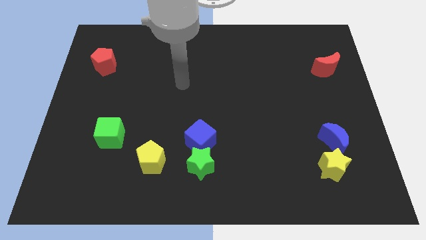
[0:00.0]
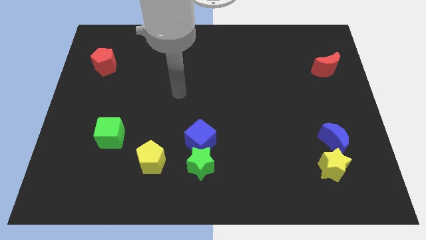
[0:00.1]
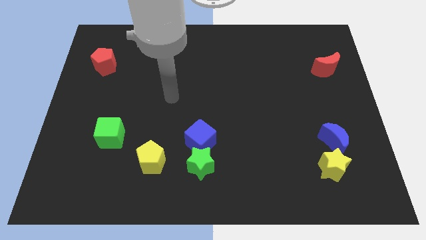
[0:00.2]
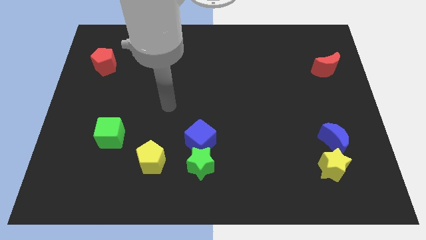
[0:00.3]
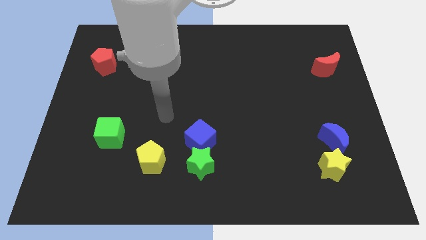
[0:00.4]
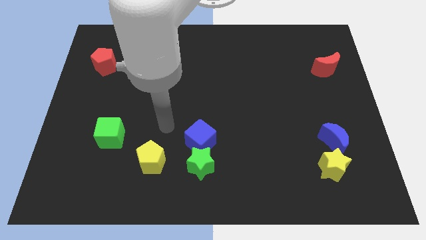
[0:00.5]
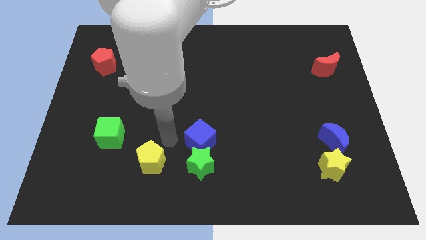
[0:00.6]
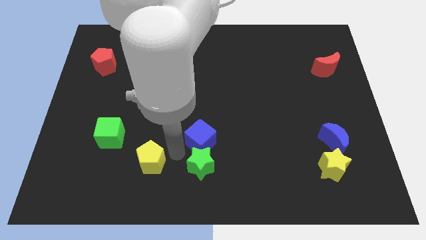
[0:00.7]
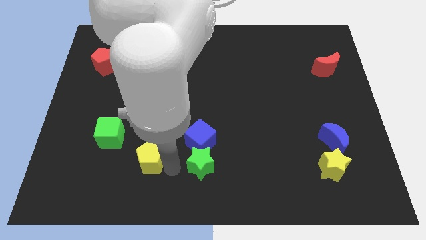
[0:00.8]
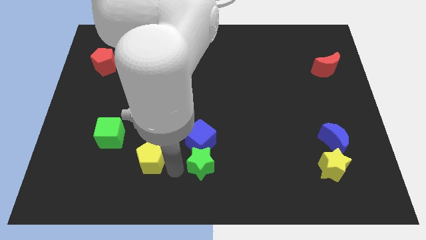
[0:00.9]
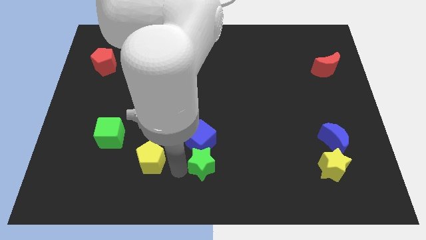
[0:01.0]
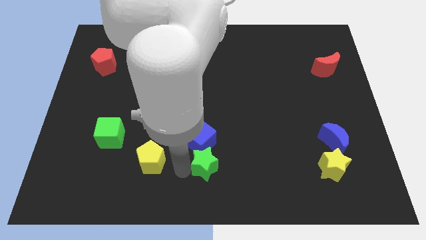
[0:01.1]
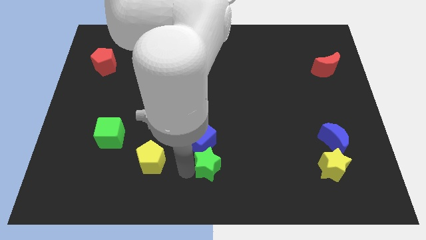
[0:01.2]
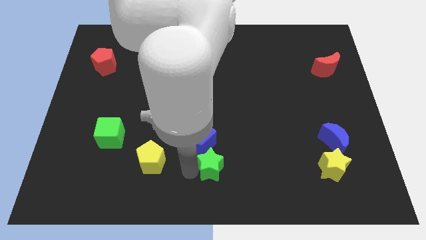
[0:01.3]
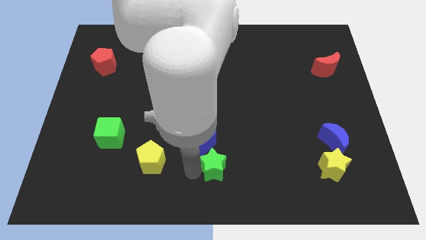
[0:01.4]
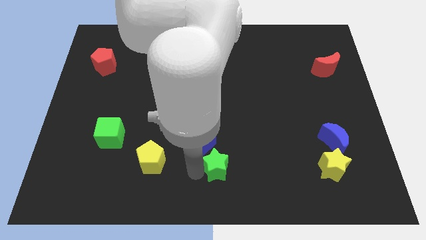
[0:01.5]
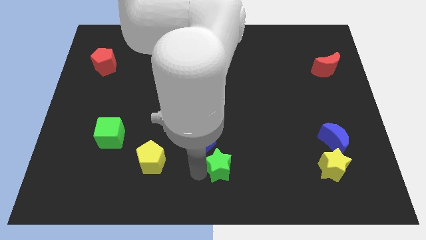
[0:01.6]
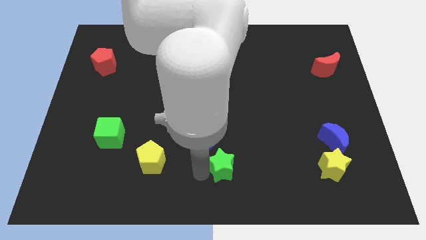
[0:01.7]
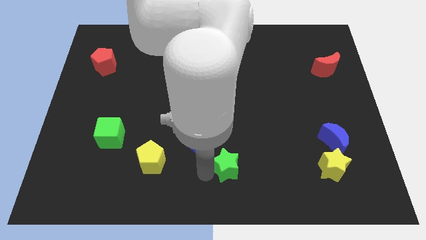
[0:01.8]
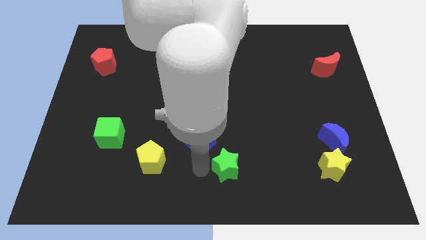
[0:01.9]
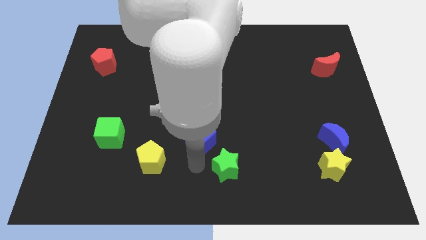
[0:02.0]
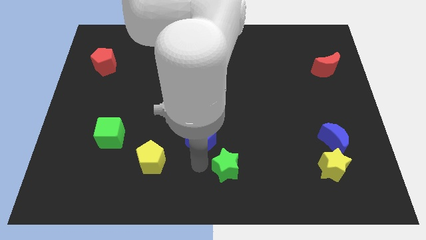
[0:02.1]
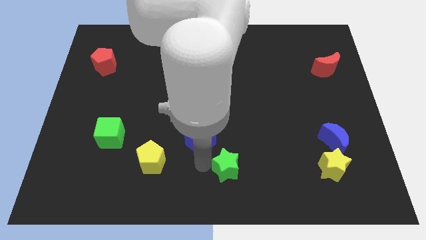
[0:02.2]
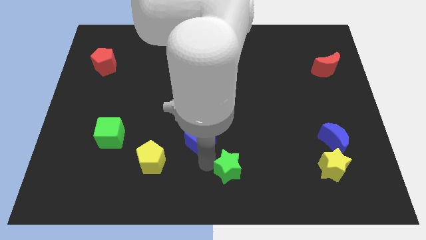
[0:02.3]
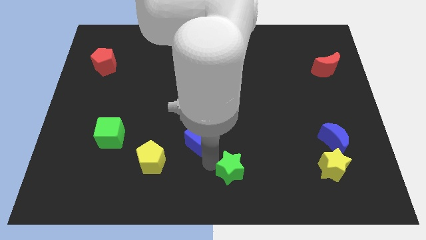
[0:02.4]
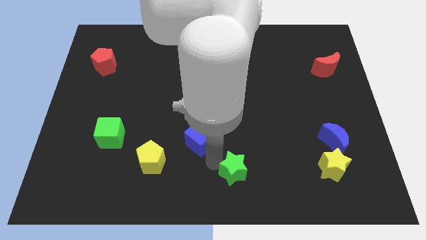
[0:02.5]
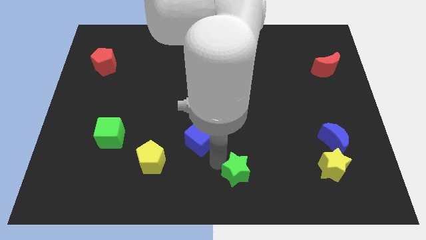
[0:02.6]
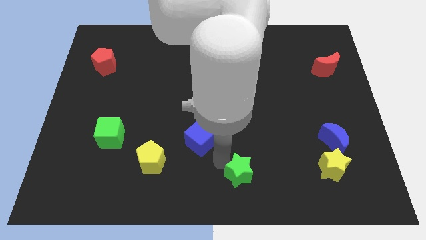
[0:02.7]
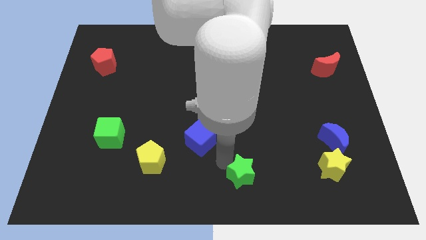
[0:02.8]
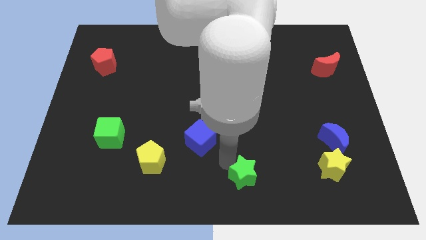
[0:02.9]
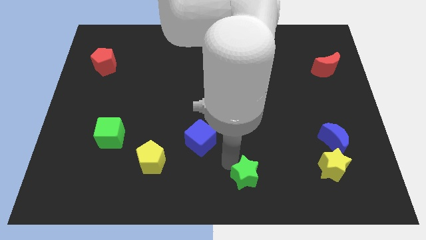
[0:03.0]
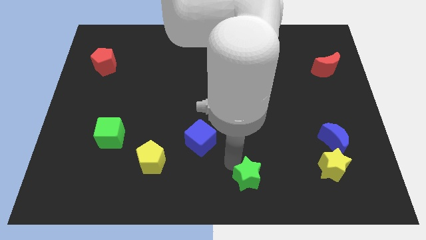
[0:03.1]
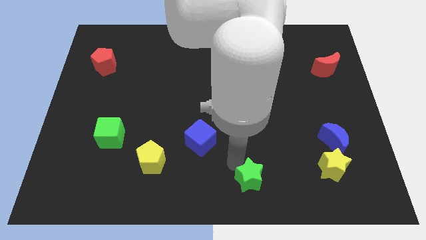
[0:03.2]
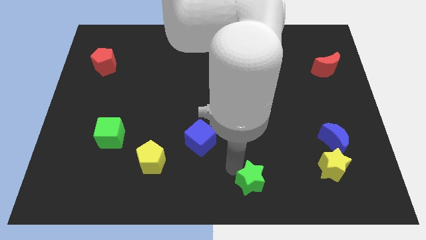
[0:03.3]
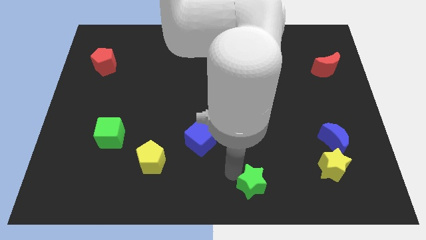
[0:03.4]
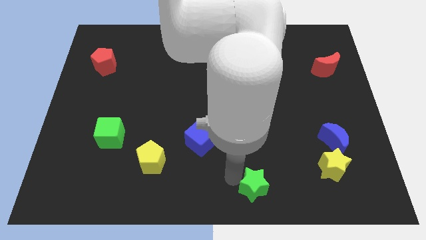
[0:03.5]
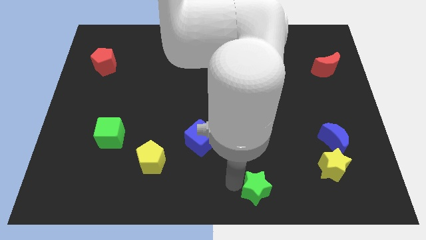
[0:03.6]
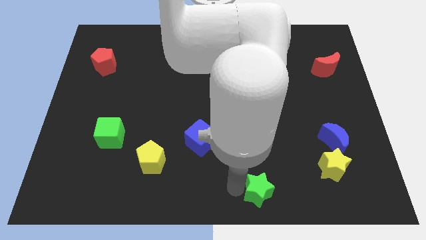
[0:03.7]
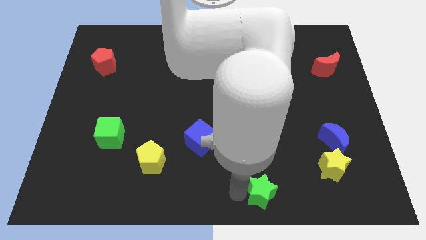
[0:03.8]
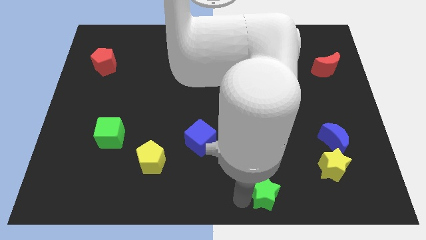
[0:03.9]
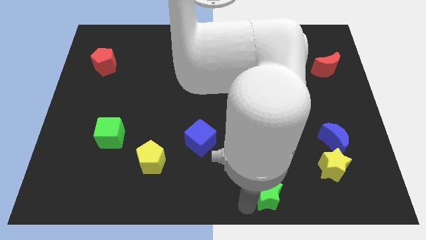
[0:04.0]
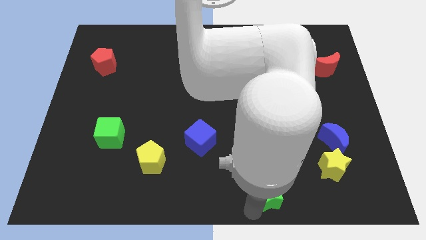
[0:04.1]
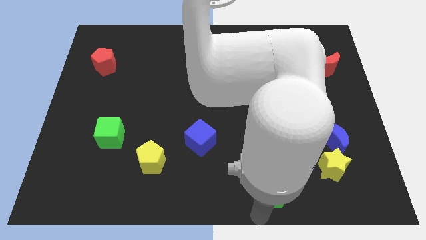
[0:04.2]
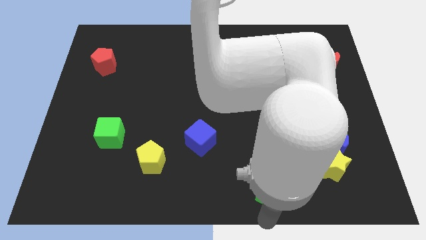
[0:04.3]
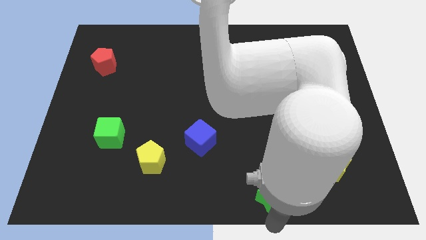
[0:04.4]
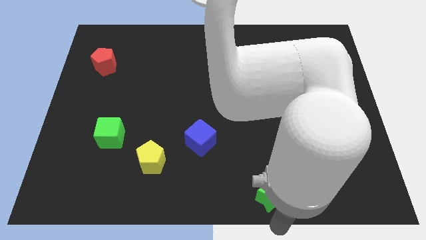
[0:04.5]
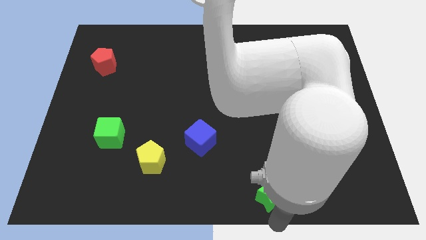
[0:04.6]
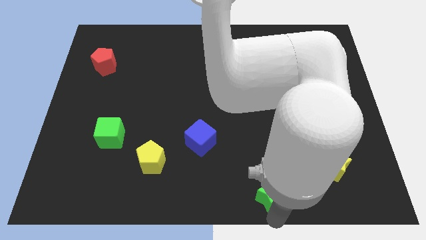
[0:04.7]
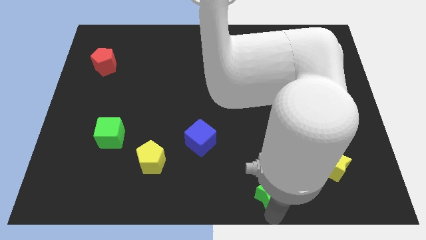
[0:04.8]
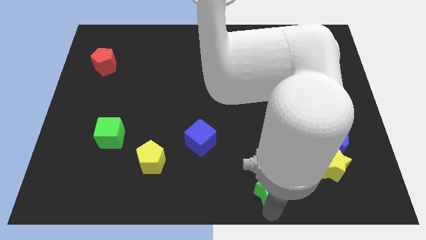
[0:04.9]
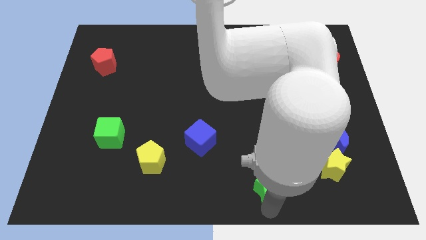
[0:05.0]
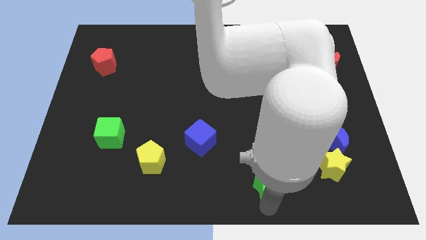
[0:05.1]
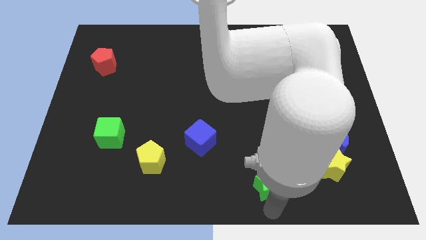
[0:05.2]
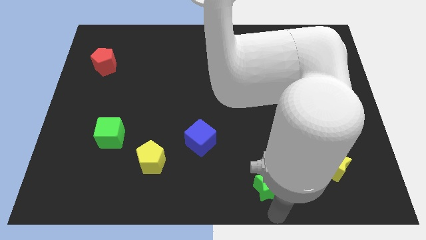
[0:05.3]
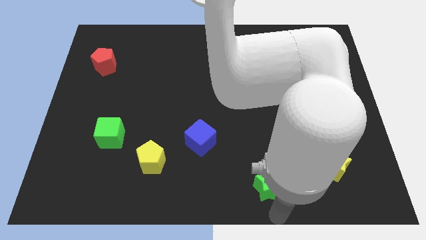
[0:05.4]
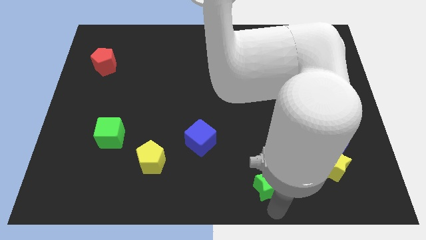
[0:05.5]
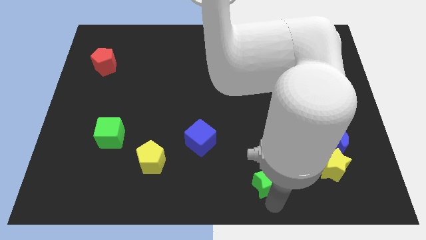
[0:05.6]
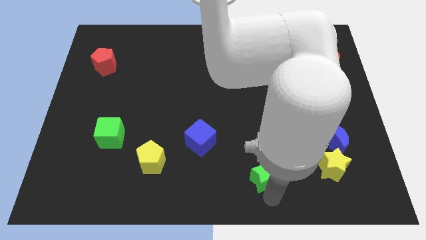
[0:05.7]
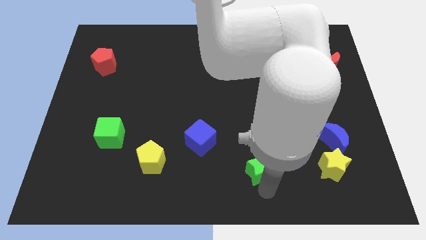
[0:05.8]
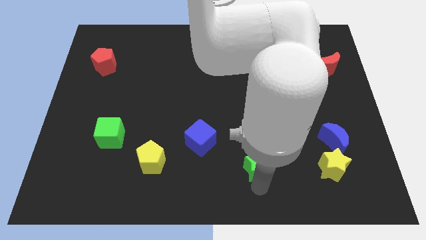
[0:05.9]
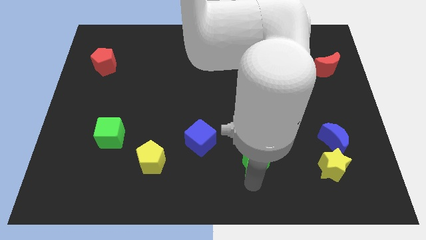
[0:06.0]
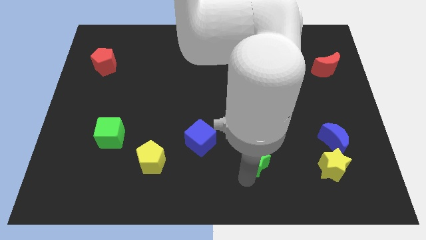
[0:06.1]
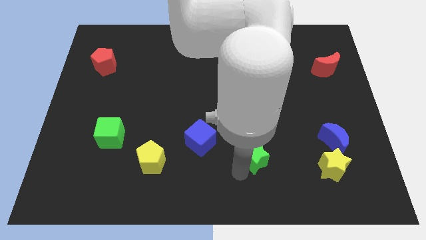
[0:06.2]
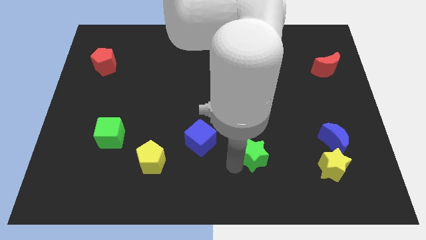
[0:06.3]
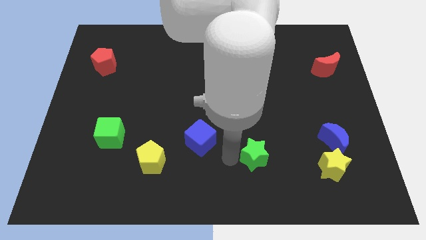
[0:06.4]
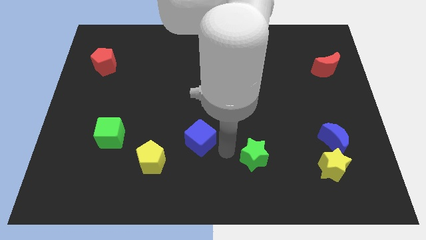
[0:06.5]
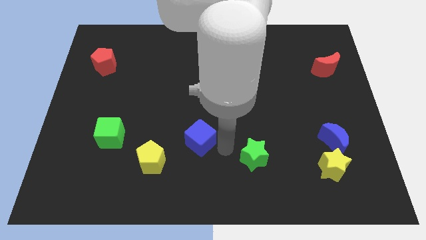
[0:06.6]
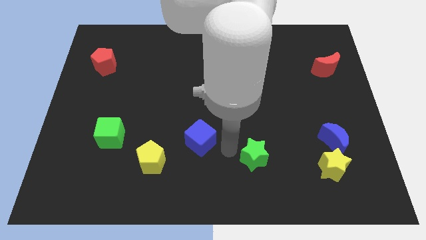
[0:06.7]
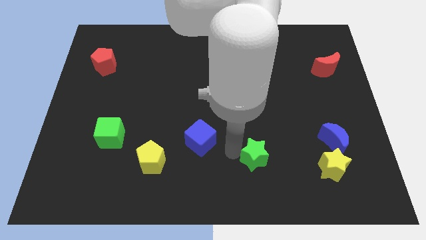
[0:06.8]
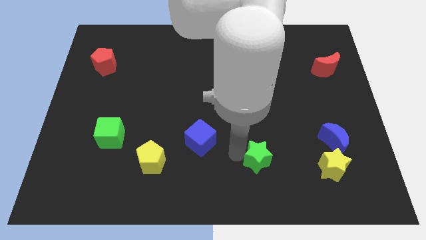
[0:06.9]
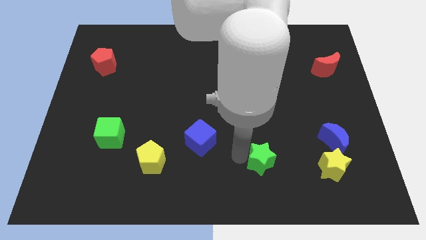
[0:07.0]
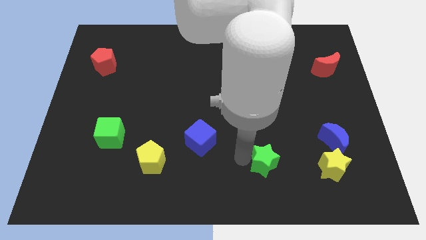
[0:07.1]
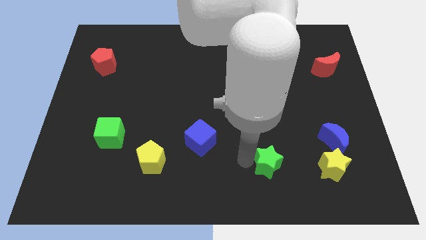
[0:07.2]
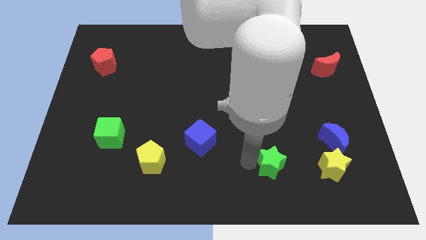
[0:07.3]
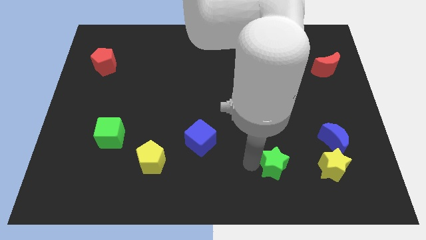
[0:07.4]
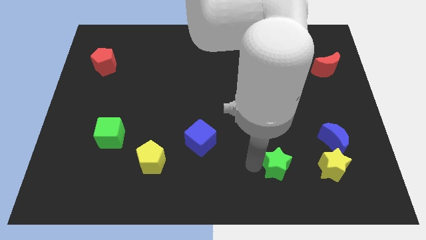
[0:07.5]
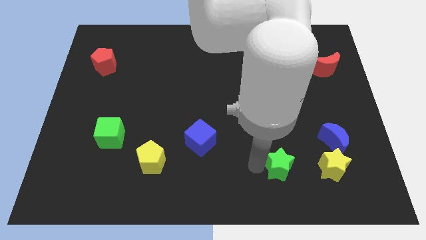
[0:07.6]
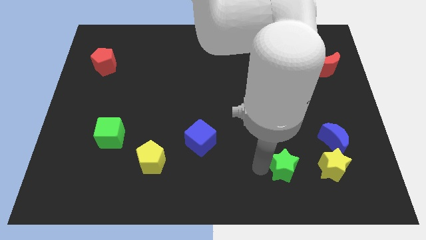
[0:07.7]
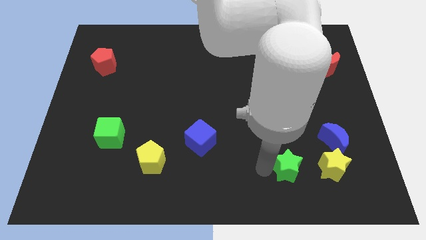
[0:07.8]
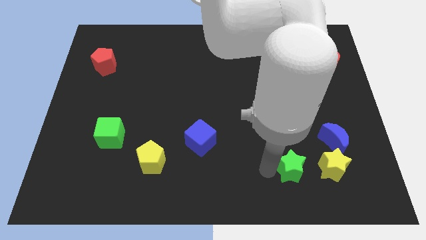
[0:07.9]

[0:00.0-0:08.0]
push the green star diagonally down and to the left of the blue moon
